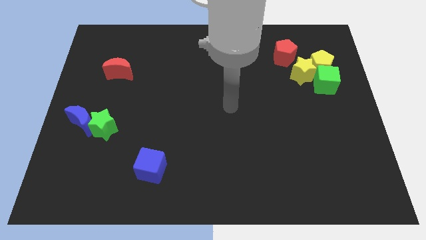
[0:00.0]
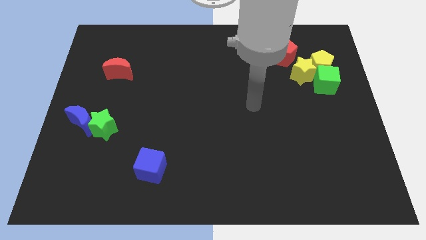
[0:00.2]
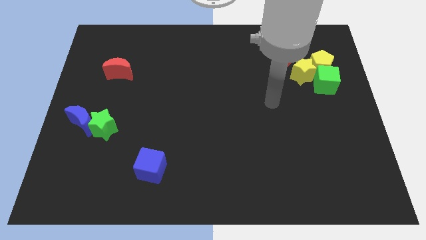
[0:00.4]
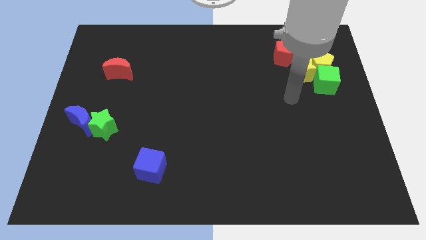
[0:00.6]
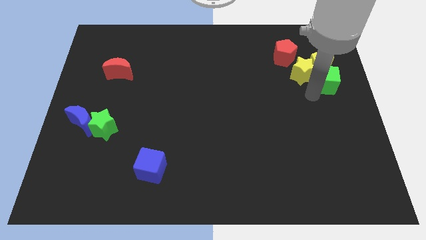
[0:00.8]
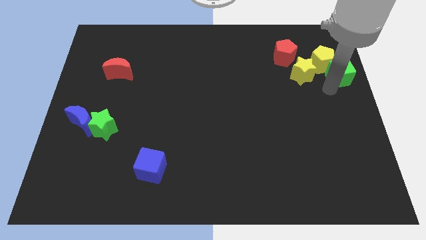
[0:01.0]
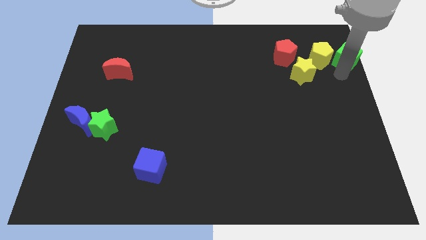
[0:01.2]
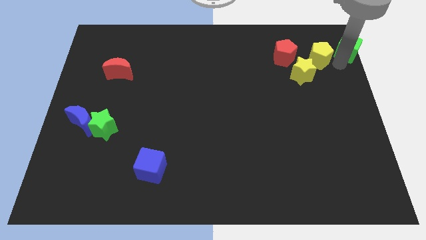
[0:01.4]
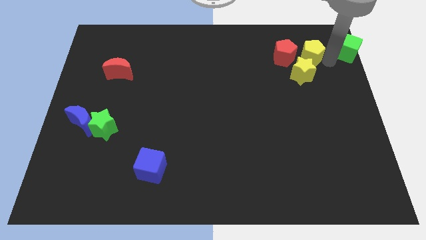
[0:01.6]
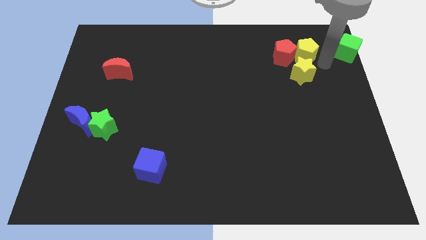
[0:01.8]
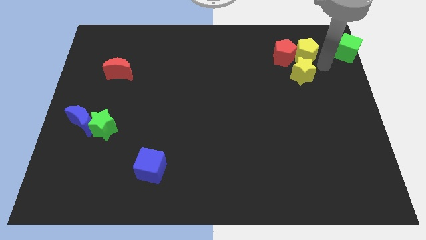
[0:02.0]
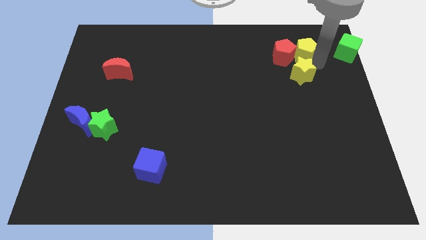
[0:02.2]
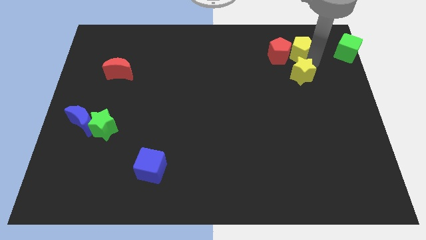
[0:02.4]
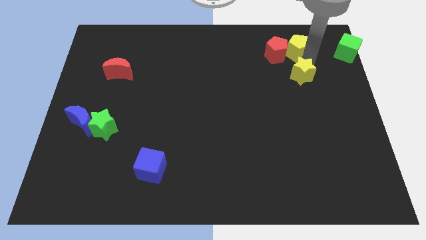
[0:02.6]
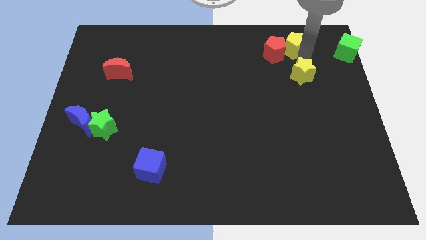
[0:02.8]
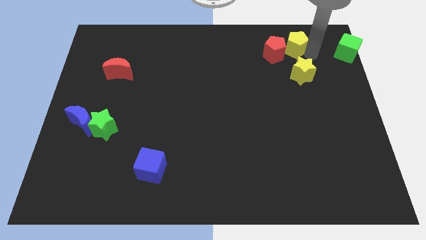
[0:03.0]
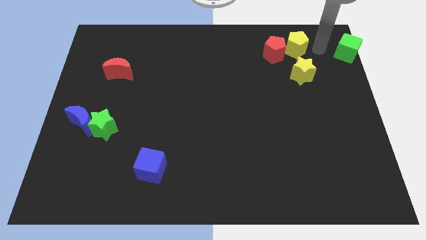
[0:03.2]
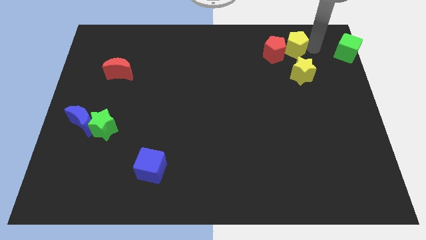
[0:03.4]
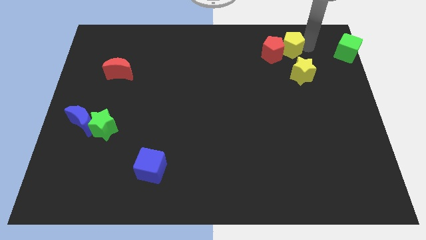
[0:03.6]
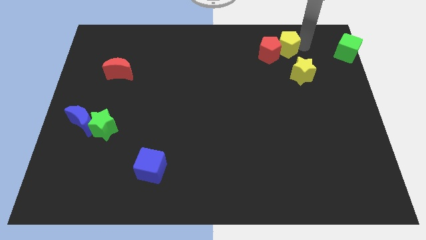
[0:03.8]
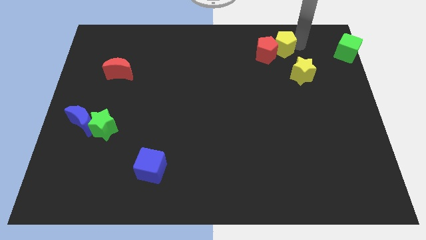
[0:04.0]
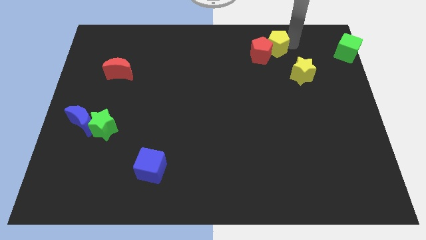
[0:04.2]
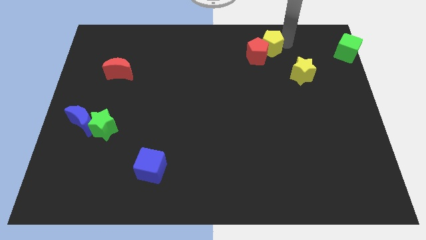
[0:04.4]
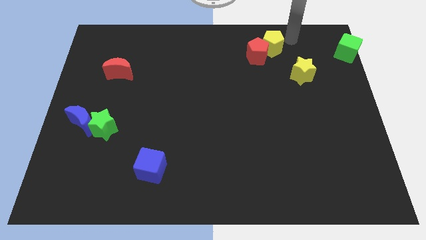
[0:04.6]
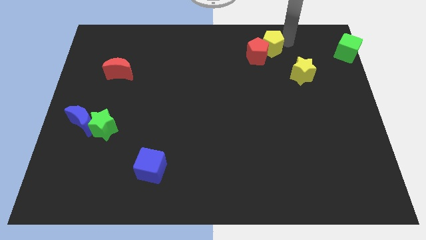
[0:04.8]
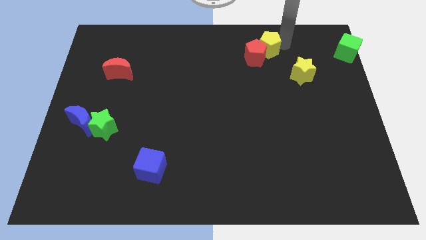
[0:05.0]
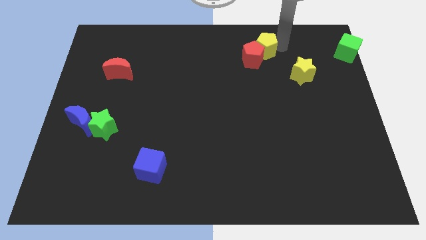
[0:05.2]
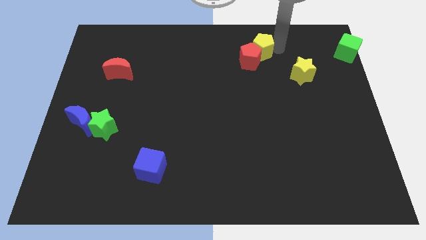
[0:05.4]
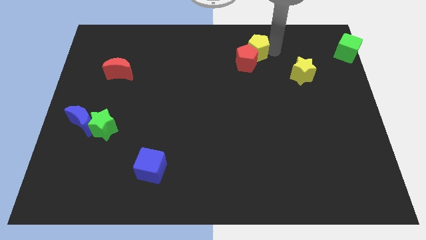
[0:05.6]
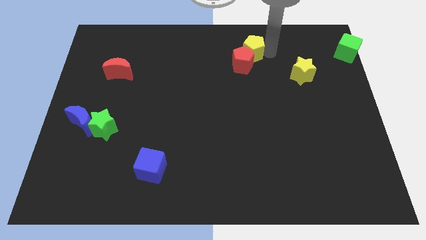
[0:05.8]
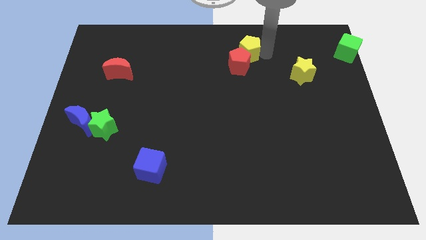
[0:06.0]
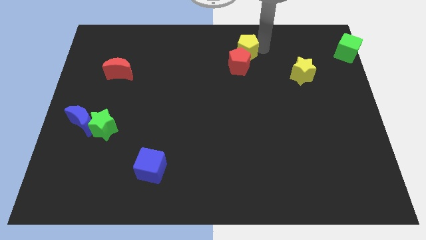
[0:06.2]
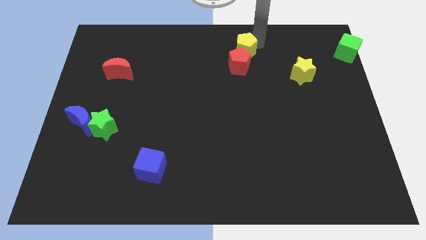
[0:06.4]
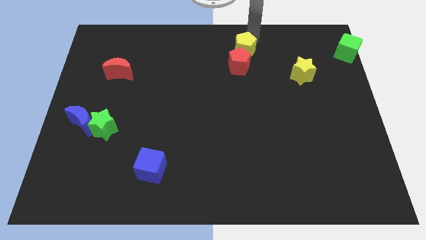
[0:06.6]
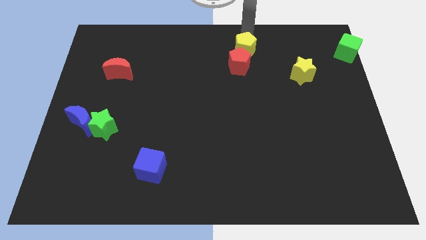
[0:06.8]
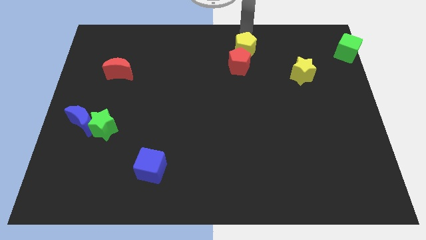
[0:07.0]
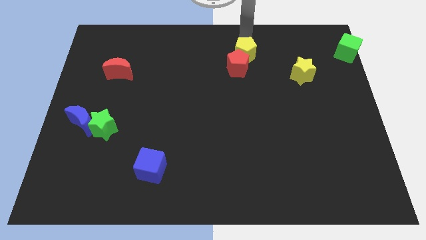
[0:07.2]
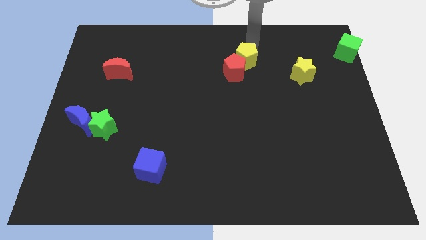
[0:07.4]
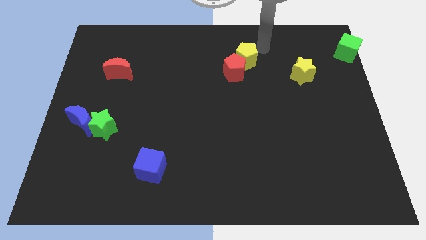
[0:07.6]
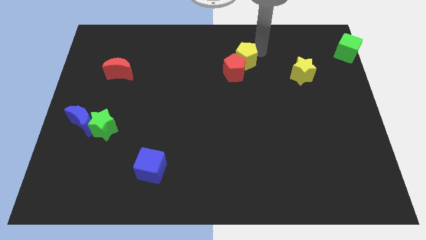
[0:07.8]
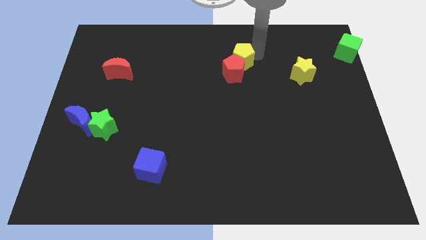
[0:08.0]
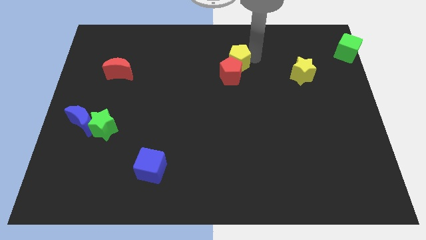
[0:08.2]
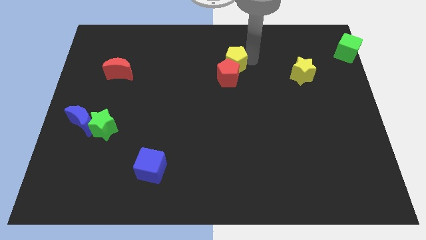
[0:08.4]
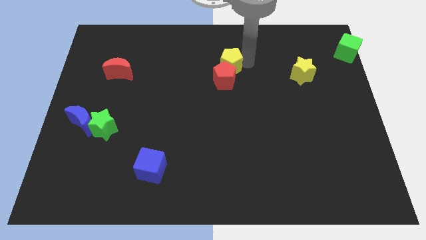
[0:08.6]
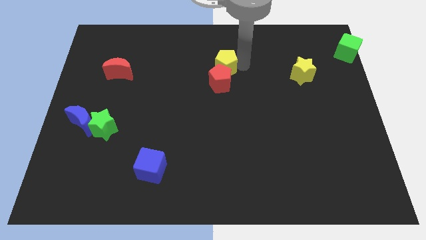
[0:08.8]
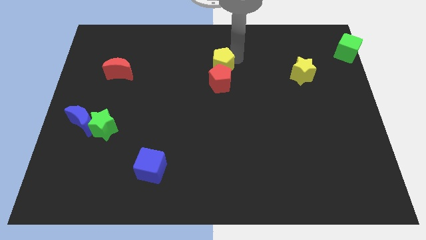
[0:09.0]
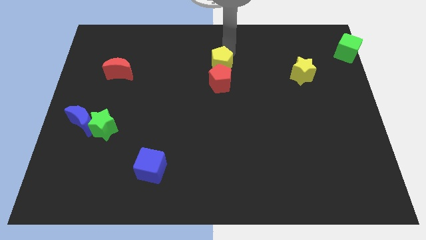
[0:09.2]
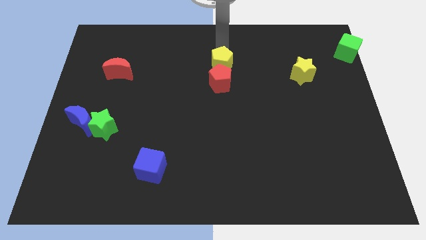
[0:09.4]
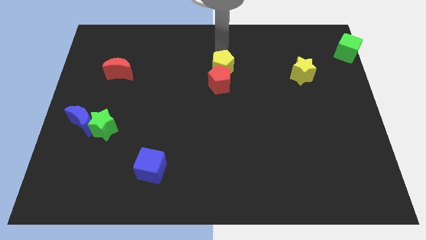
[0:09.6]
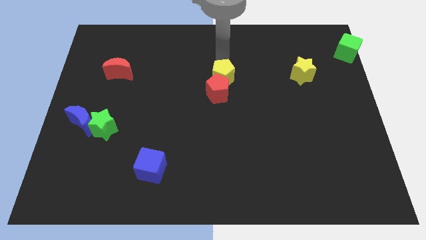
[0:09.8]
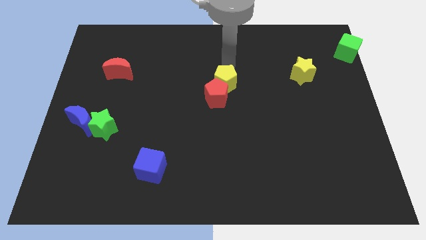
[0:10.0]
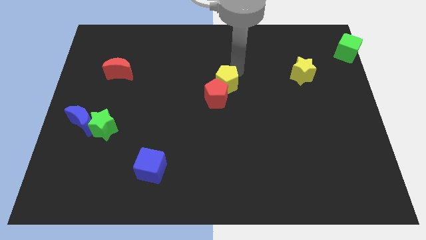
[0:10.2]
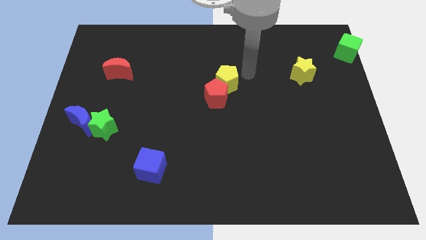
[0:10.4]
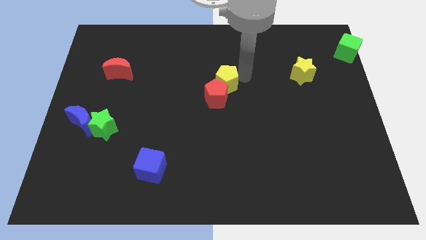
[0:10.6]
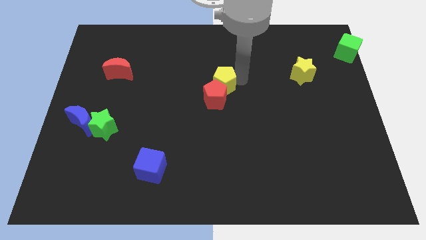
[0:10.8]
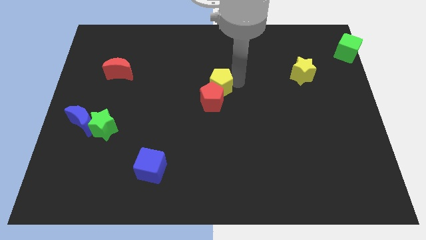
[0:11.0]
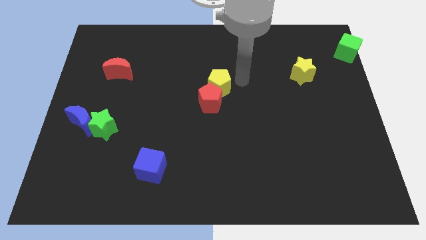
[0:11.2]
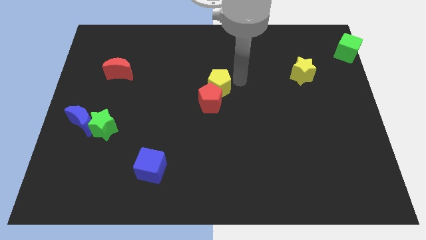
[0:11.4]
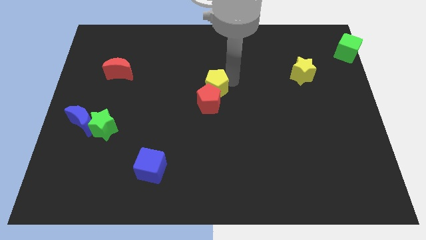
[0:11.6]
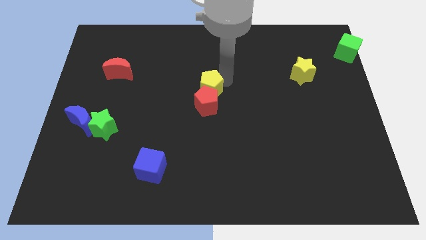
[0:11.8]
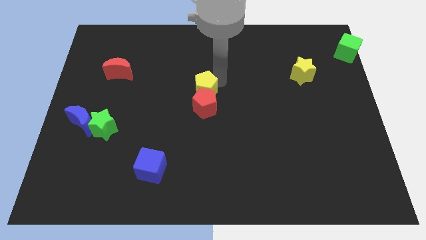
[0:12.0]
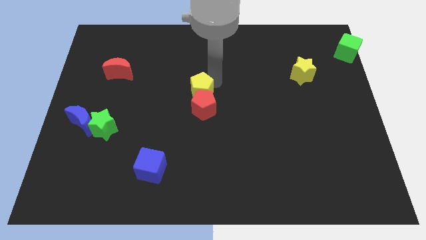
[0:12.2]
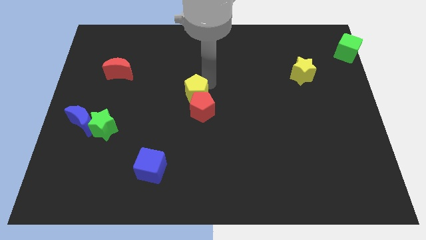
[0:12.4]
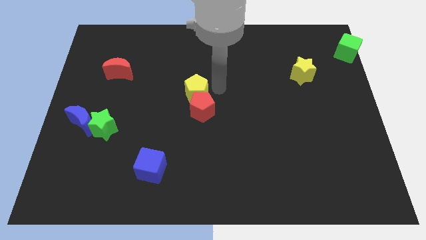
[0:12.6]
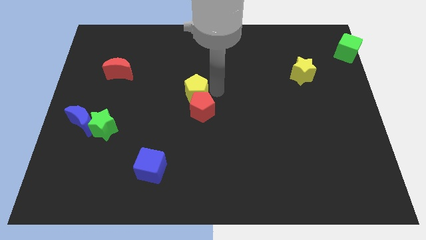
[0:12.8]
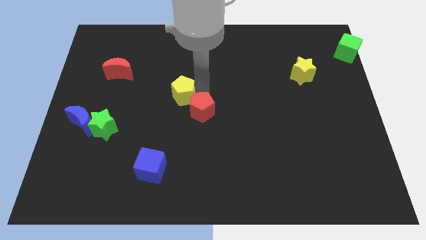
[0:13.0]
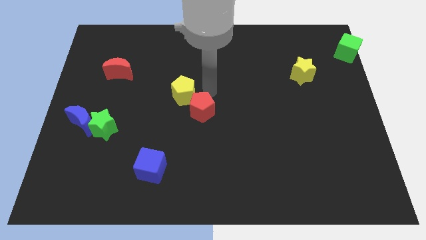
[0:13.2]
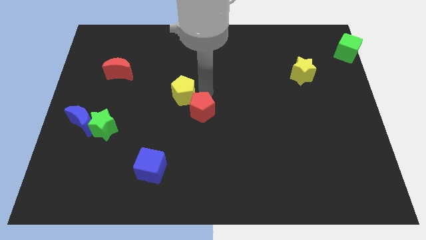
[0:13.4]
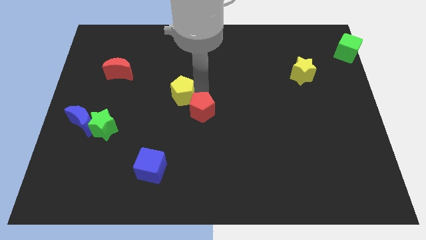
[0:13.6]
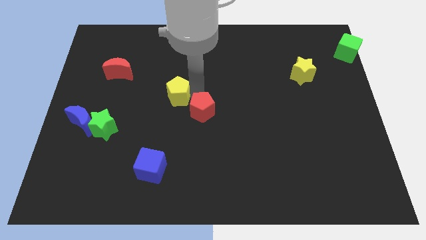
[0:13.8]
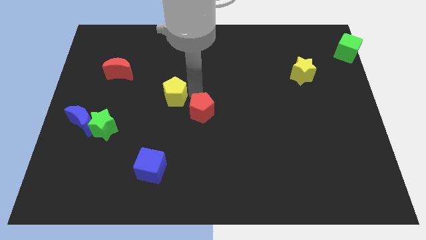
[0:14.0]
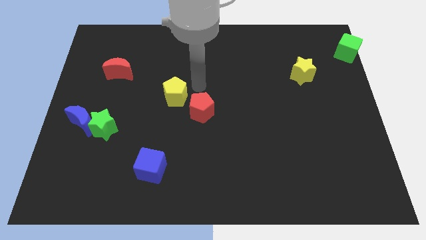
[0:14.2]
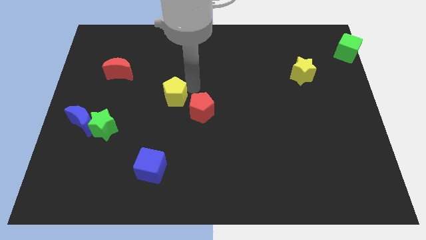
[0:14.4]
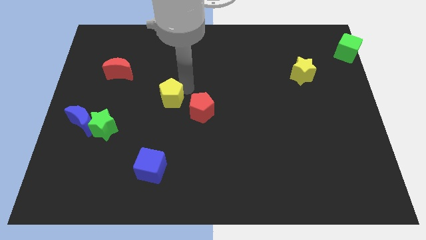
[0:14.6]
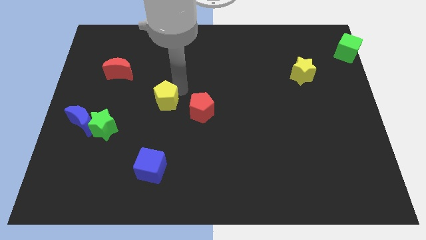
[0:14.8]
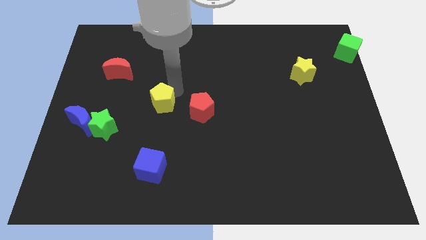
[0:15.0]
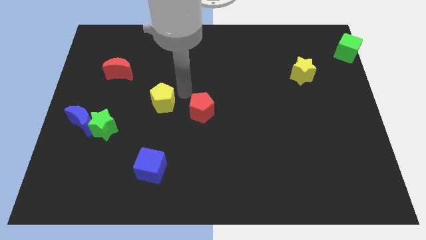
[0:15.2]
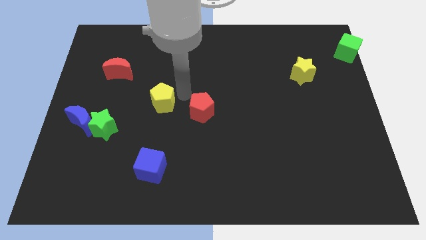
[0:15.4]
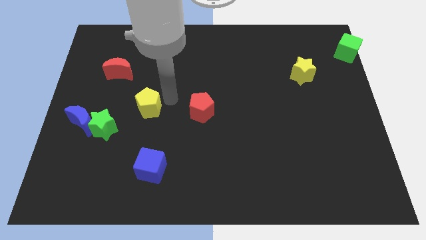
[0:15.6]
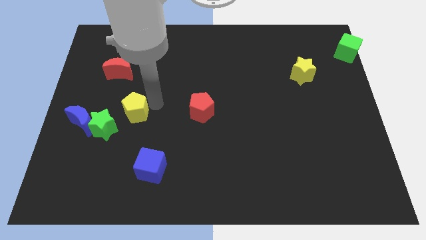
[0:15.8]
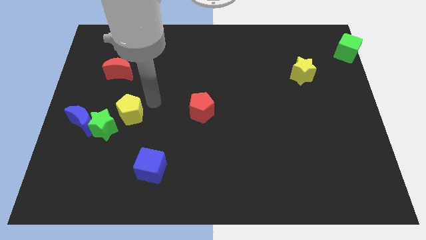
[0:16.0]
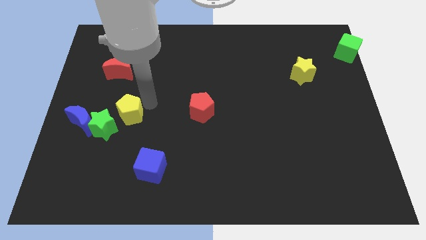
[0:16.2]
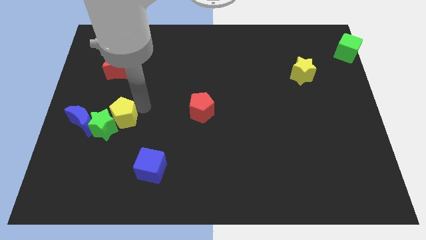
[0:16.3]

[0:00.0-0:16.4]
move the yellow pentagon to the green star
